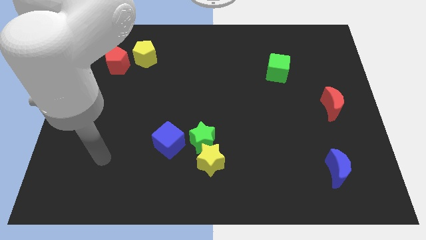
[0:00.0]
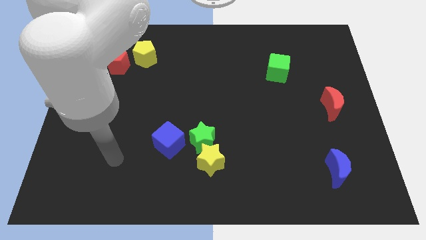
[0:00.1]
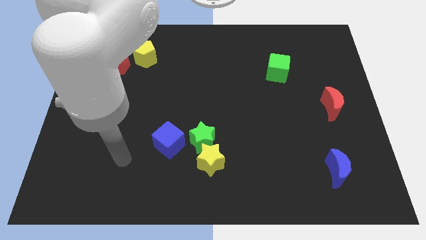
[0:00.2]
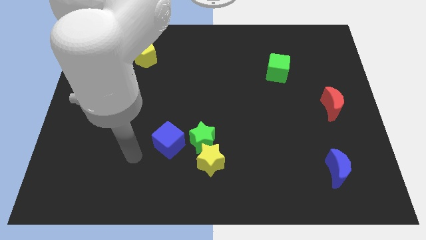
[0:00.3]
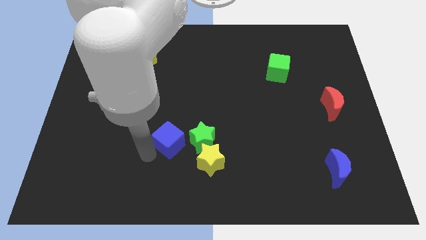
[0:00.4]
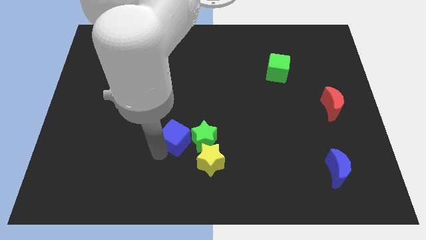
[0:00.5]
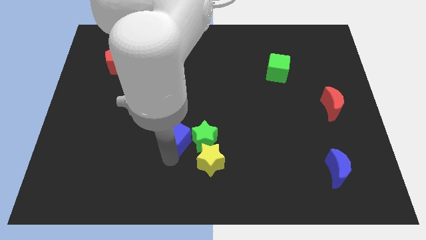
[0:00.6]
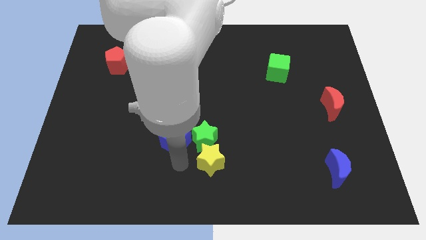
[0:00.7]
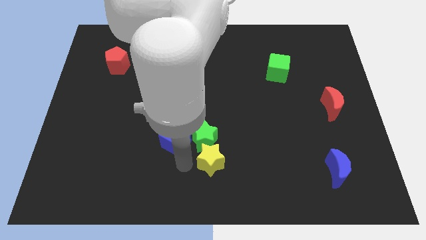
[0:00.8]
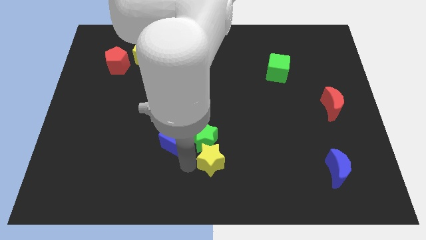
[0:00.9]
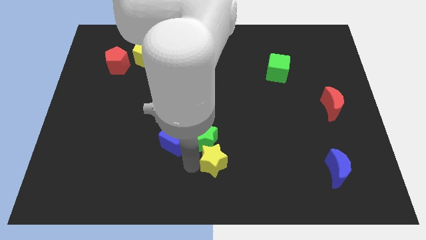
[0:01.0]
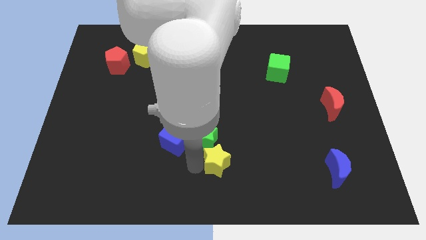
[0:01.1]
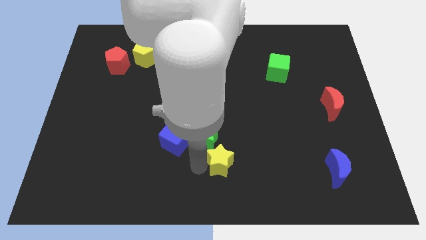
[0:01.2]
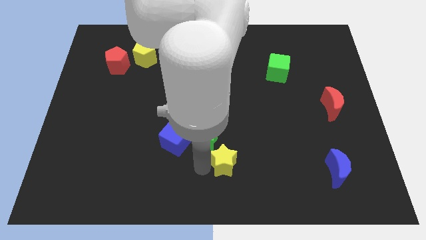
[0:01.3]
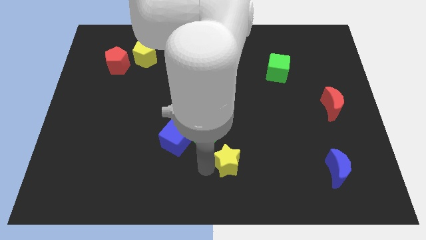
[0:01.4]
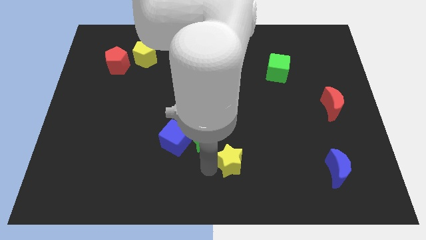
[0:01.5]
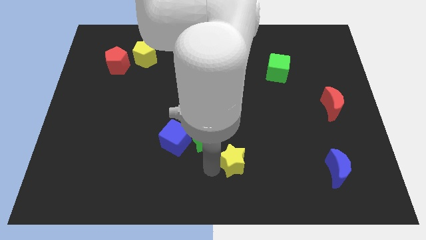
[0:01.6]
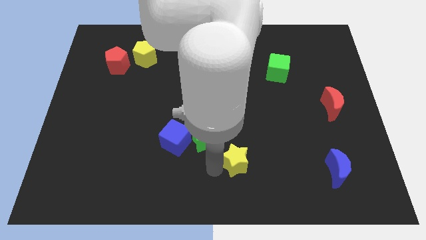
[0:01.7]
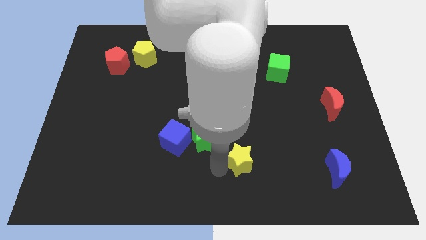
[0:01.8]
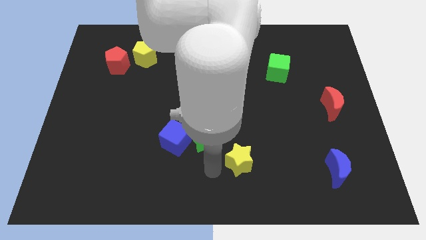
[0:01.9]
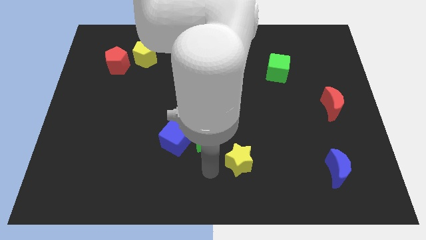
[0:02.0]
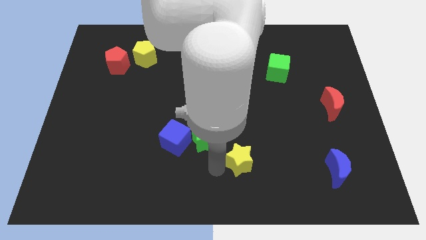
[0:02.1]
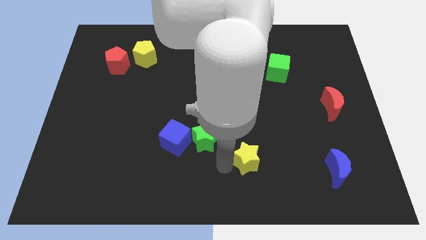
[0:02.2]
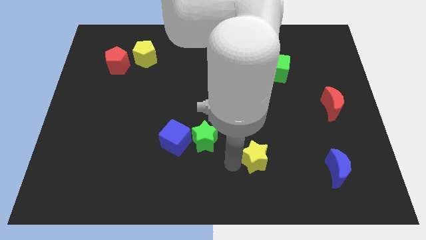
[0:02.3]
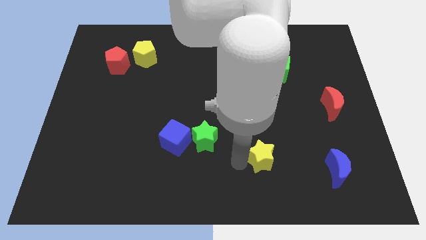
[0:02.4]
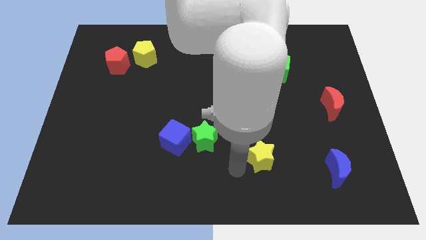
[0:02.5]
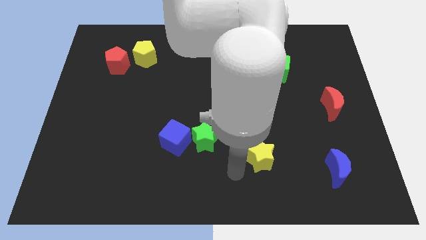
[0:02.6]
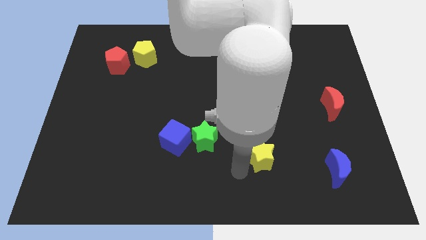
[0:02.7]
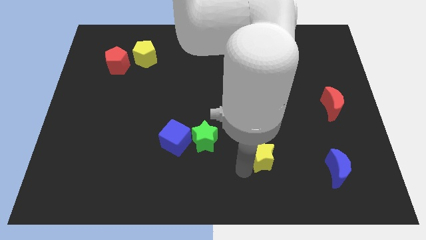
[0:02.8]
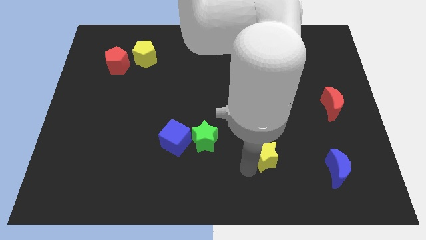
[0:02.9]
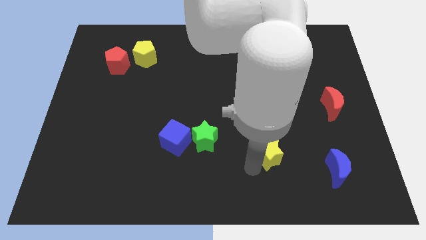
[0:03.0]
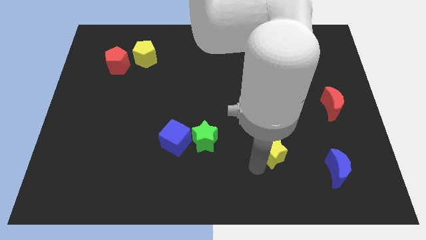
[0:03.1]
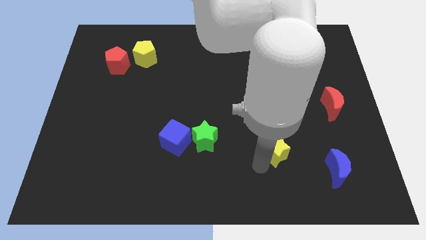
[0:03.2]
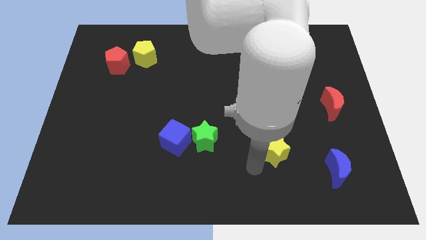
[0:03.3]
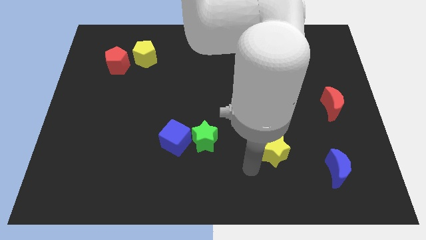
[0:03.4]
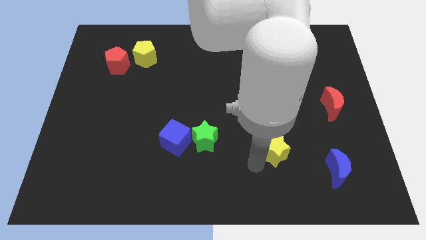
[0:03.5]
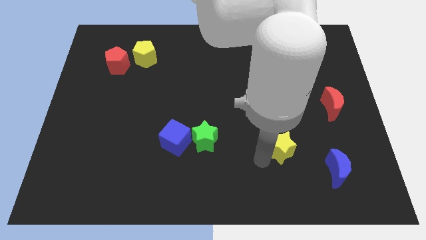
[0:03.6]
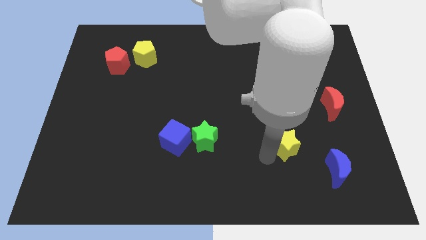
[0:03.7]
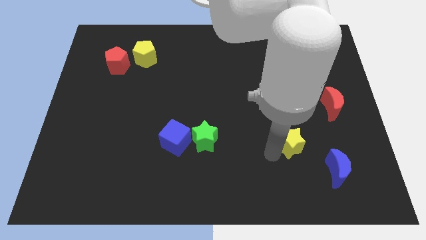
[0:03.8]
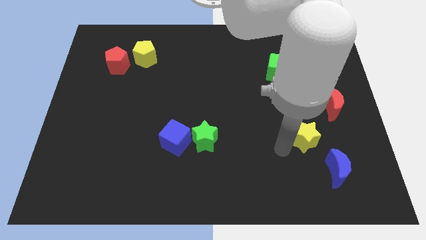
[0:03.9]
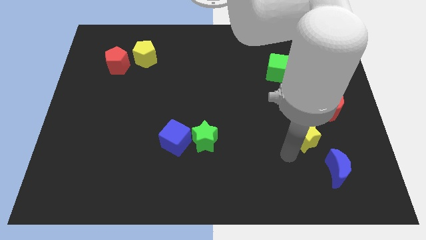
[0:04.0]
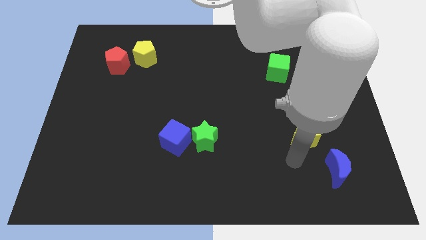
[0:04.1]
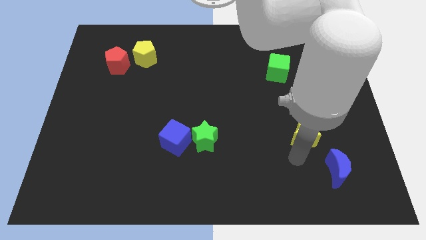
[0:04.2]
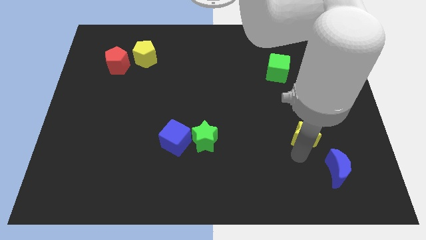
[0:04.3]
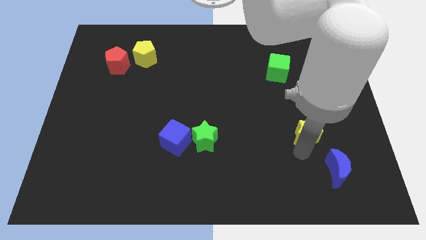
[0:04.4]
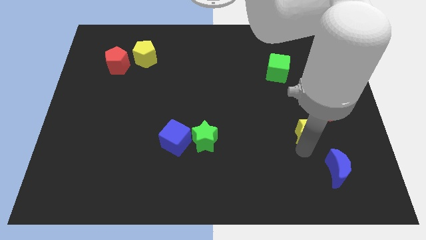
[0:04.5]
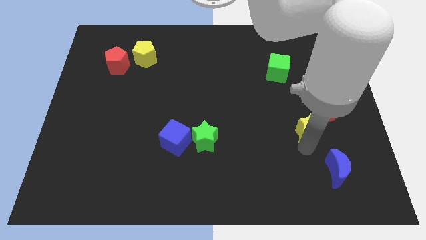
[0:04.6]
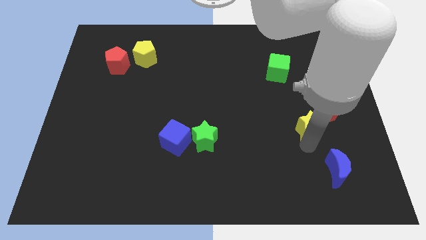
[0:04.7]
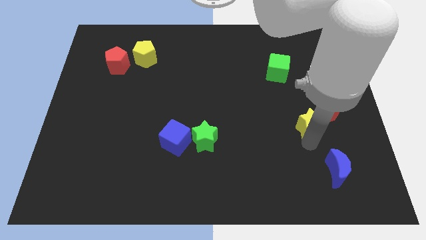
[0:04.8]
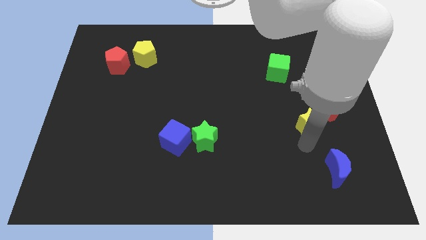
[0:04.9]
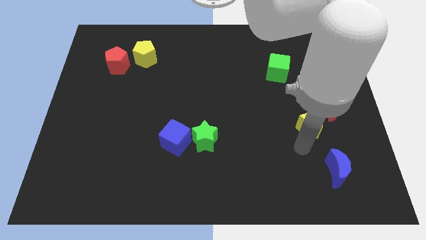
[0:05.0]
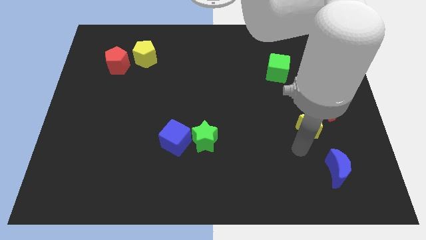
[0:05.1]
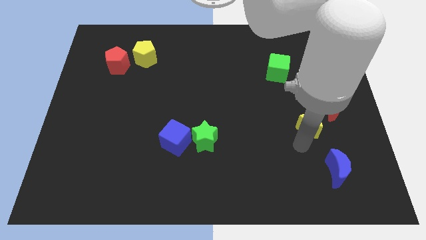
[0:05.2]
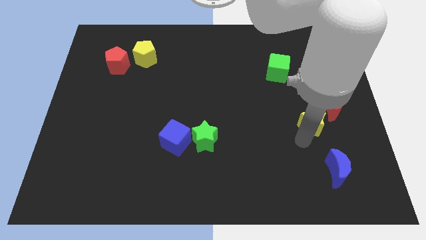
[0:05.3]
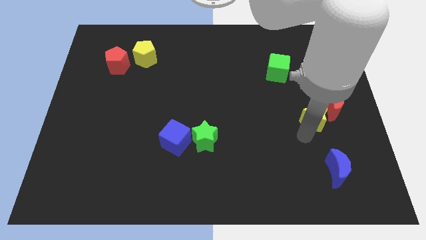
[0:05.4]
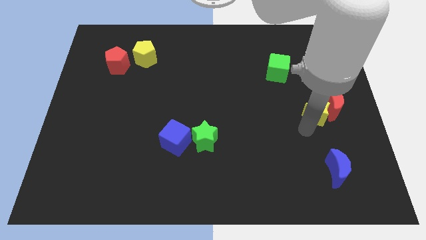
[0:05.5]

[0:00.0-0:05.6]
push the yellow star to the red moon

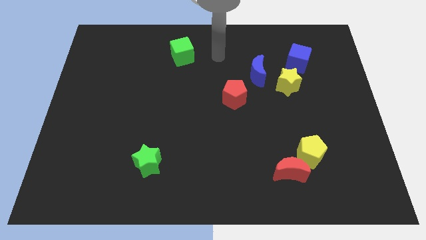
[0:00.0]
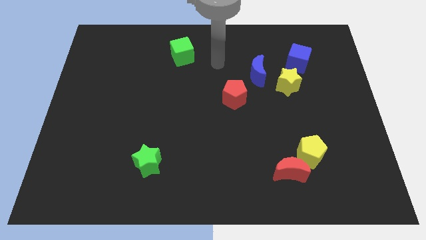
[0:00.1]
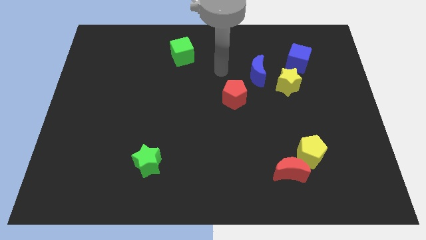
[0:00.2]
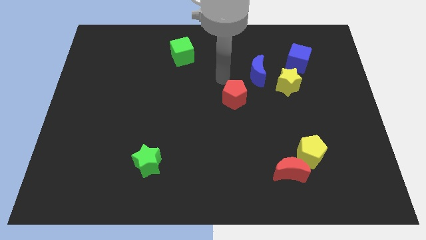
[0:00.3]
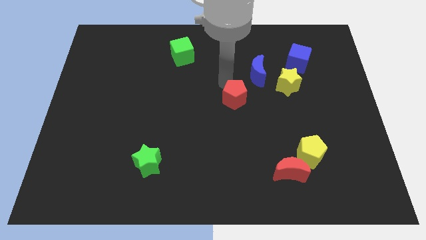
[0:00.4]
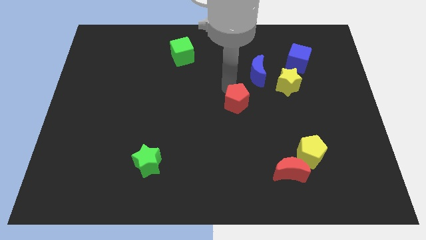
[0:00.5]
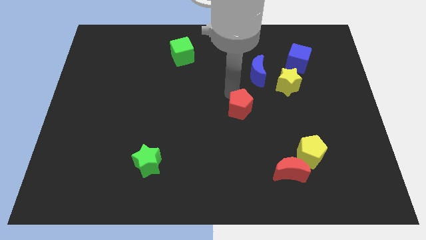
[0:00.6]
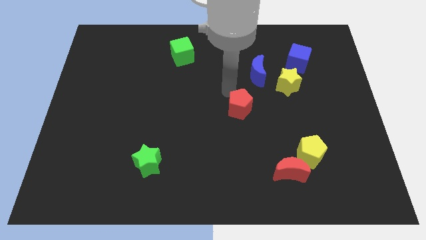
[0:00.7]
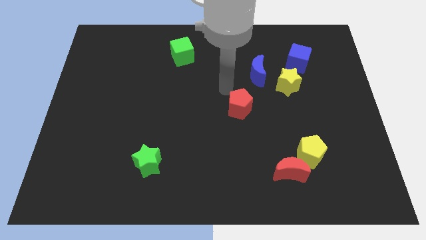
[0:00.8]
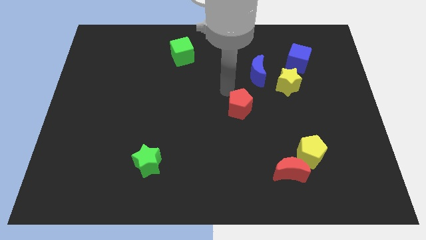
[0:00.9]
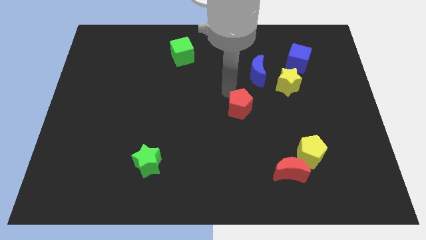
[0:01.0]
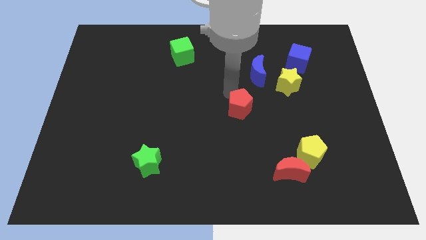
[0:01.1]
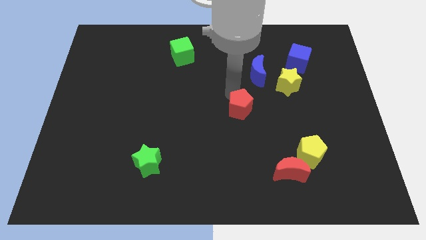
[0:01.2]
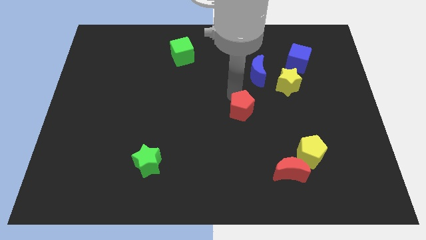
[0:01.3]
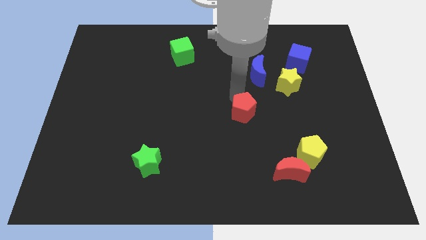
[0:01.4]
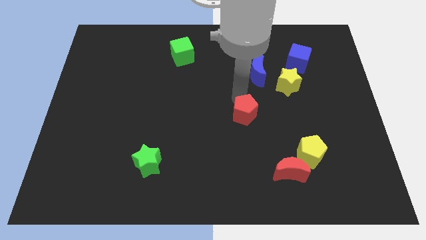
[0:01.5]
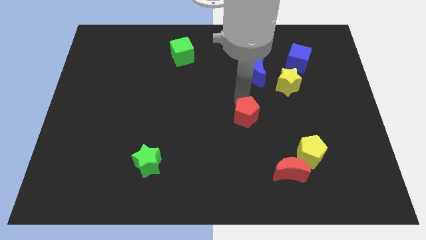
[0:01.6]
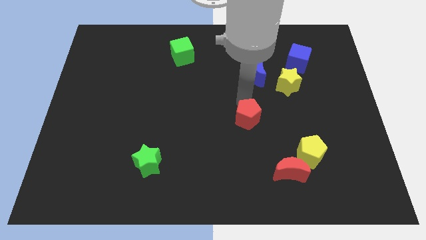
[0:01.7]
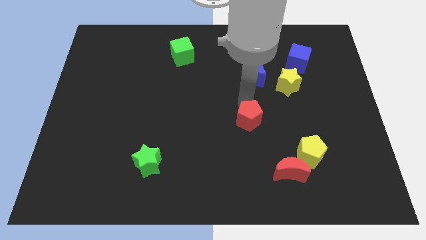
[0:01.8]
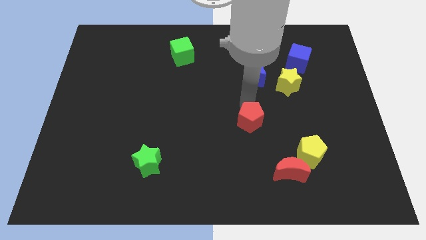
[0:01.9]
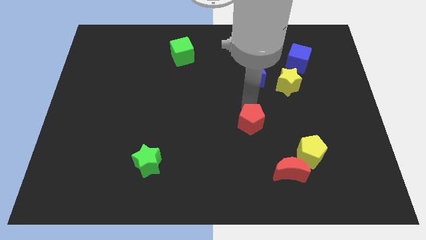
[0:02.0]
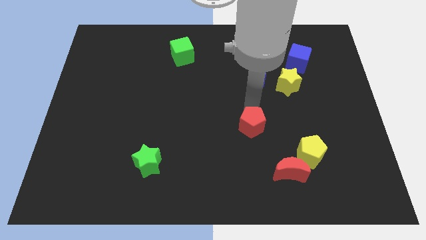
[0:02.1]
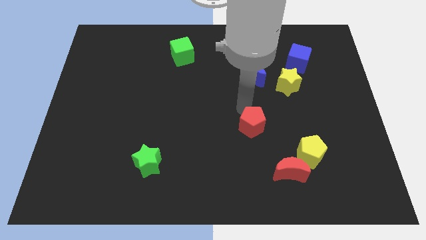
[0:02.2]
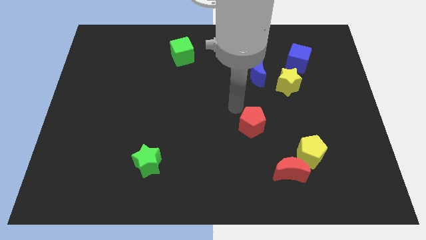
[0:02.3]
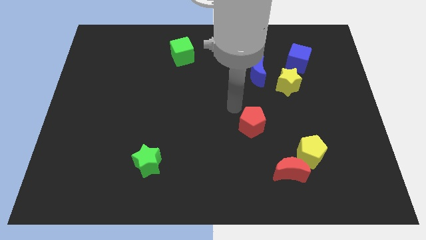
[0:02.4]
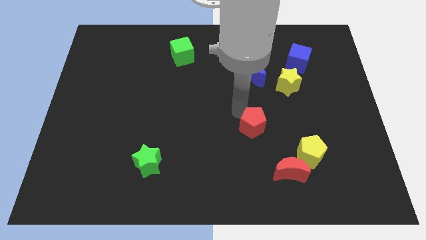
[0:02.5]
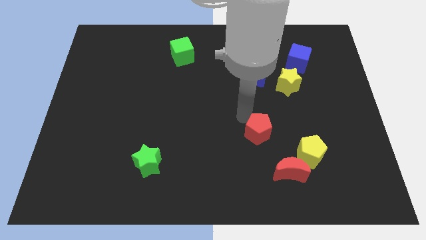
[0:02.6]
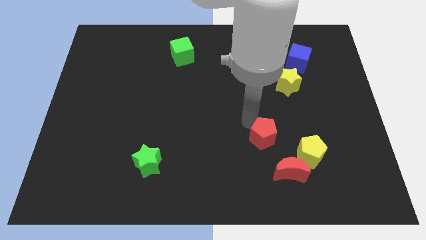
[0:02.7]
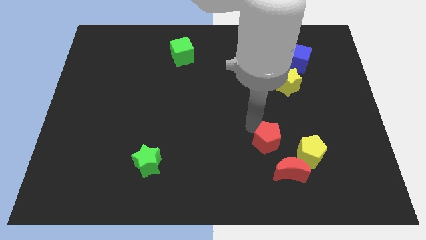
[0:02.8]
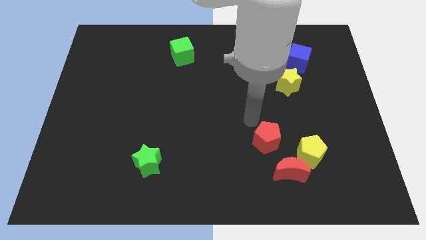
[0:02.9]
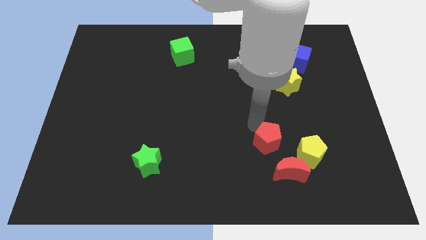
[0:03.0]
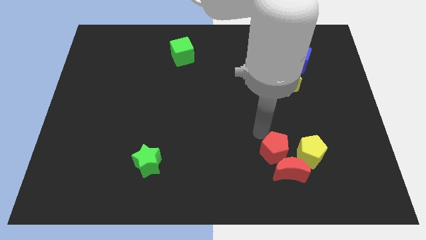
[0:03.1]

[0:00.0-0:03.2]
move the red pentagon close to the red moon
